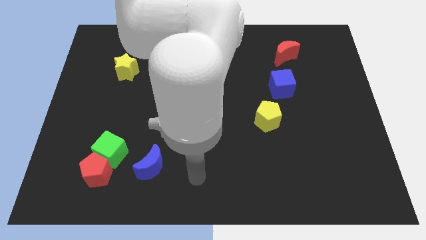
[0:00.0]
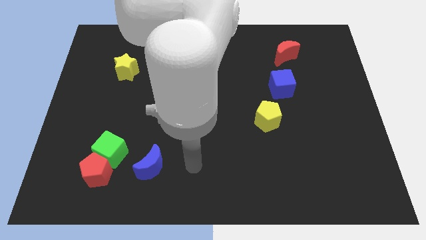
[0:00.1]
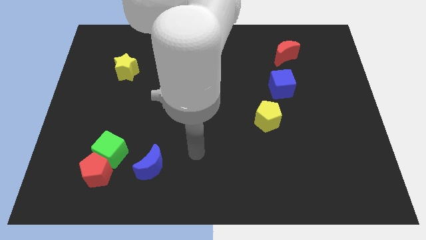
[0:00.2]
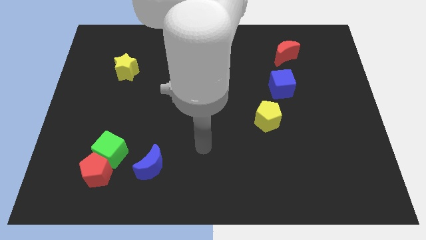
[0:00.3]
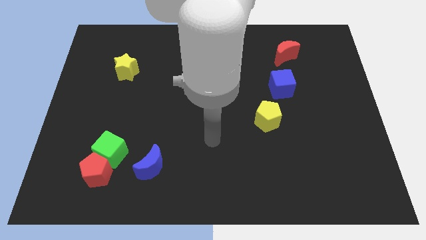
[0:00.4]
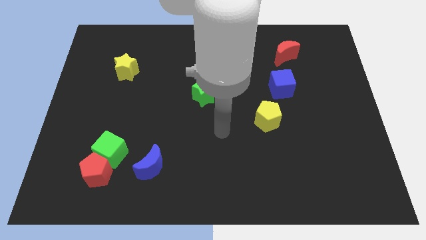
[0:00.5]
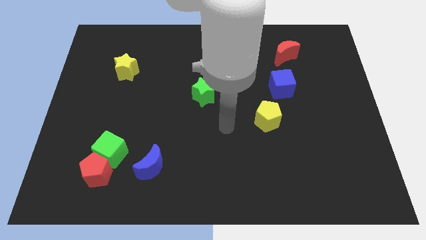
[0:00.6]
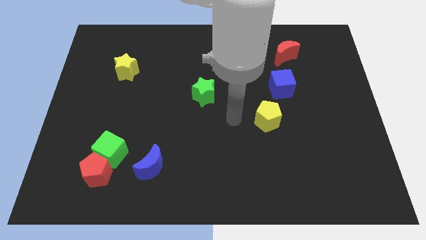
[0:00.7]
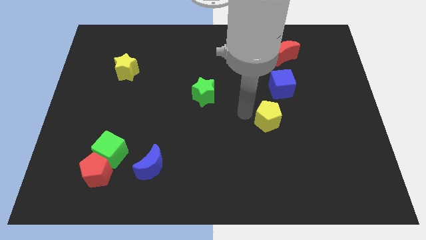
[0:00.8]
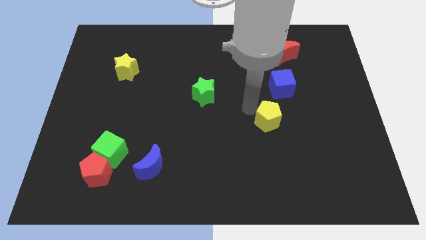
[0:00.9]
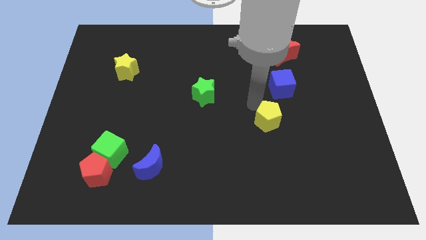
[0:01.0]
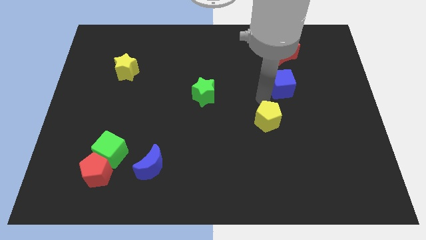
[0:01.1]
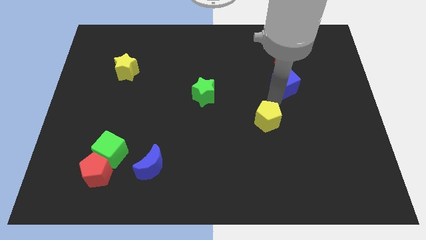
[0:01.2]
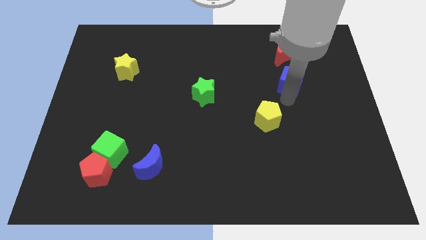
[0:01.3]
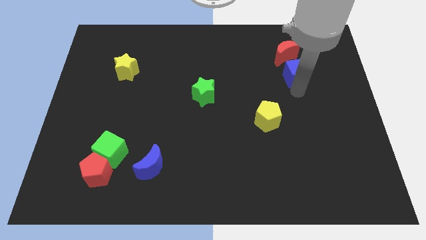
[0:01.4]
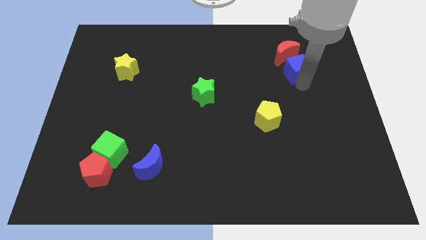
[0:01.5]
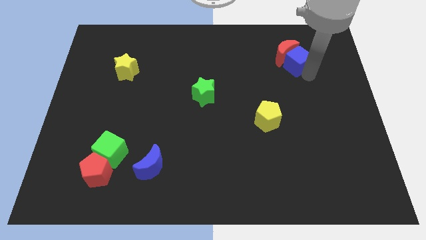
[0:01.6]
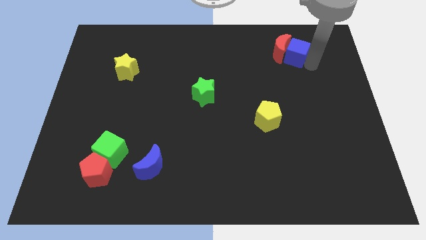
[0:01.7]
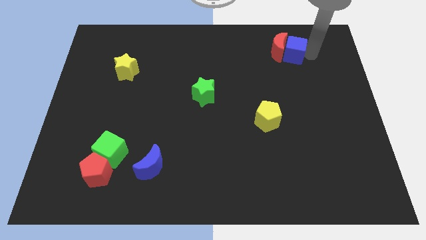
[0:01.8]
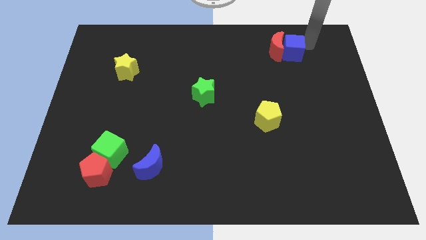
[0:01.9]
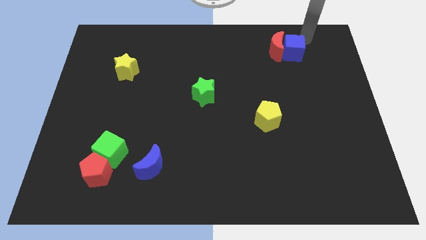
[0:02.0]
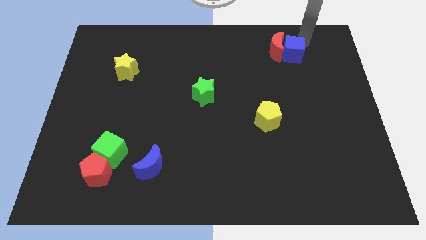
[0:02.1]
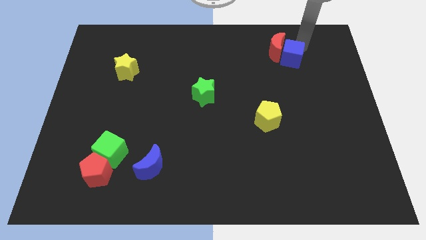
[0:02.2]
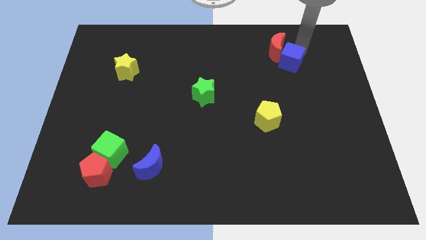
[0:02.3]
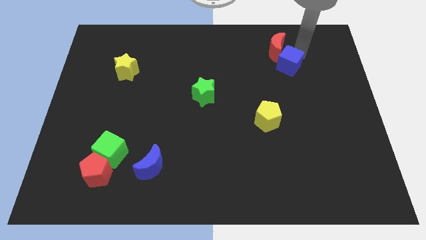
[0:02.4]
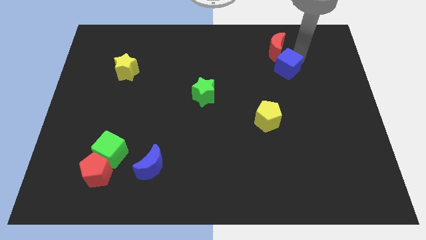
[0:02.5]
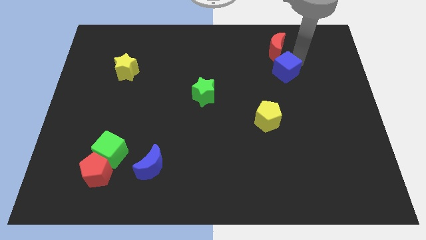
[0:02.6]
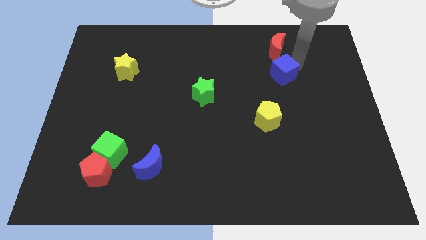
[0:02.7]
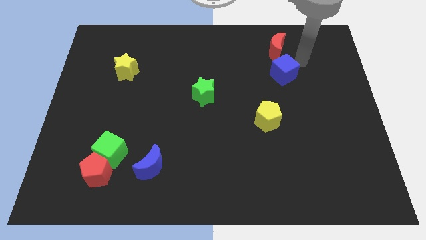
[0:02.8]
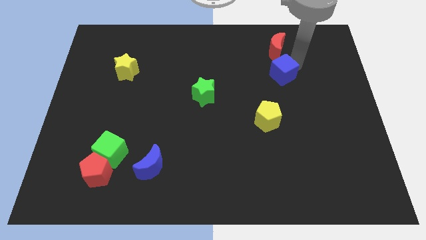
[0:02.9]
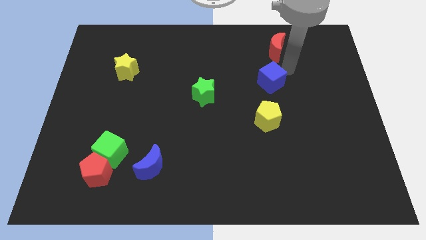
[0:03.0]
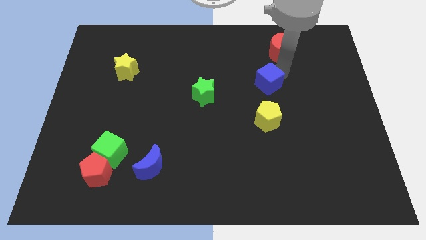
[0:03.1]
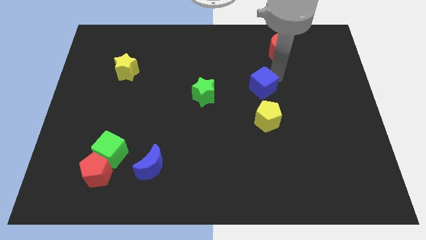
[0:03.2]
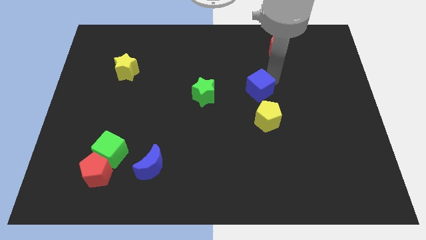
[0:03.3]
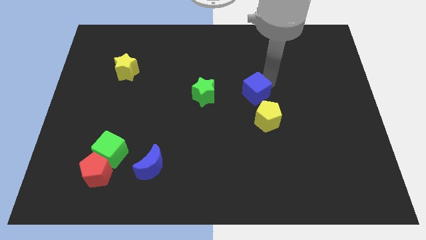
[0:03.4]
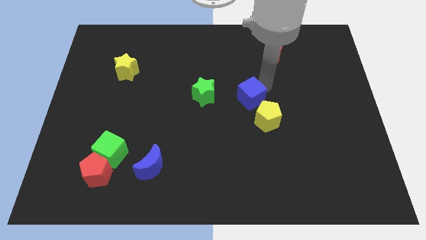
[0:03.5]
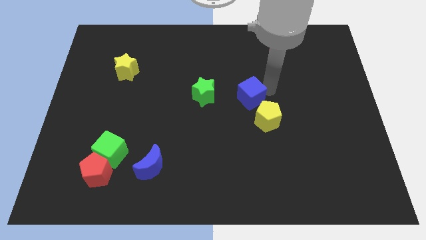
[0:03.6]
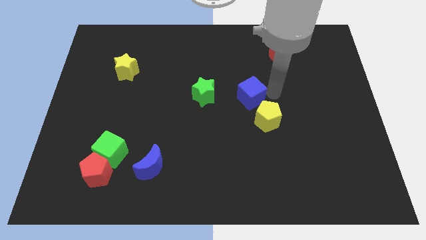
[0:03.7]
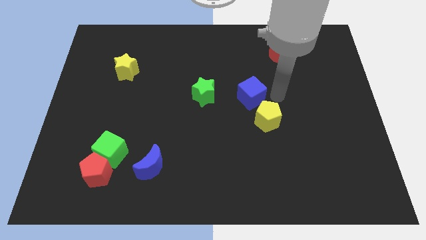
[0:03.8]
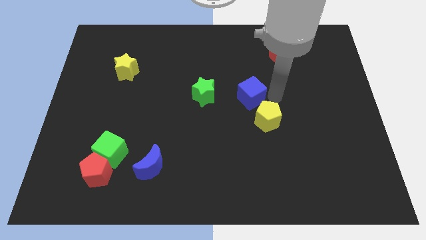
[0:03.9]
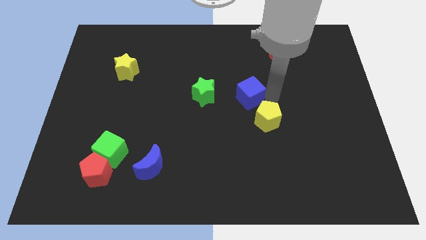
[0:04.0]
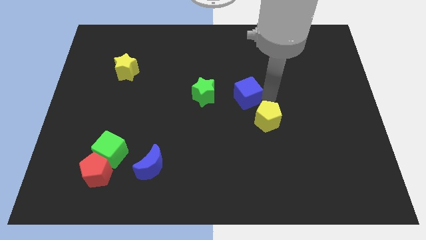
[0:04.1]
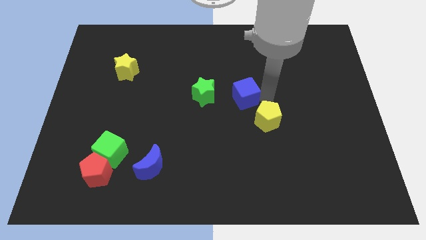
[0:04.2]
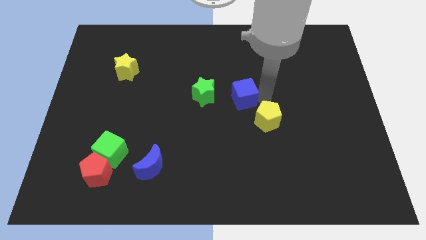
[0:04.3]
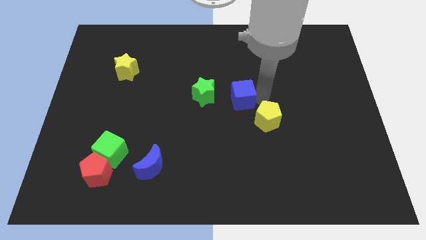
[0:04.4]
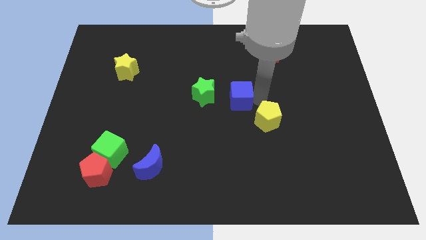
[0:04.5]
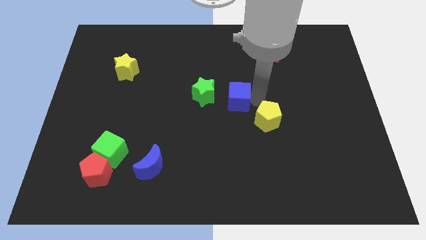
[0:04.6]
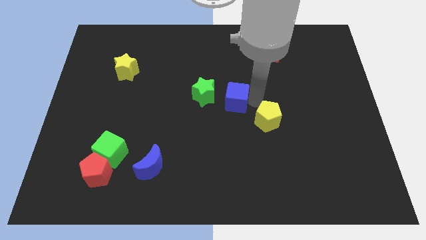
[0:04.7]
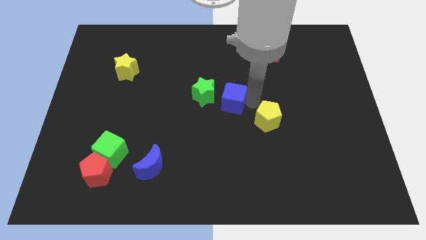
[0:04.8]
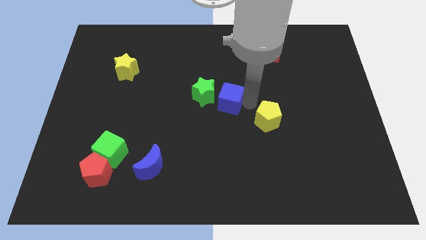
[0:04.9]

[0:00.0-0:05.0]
slide the blue cube towards the green star

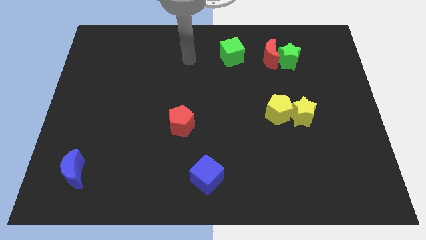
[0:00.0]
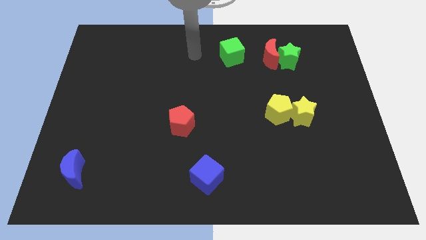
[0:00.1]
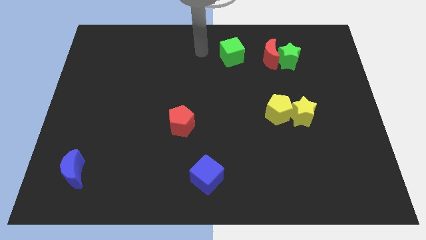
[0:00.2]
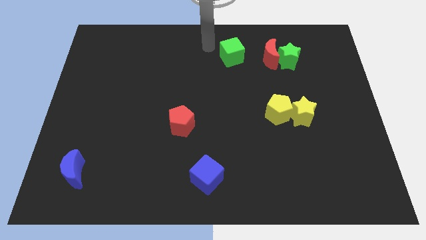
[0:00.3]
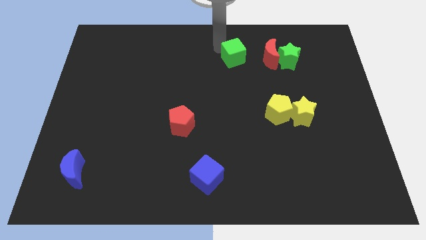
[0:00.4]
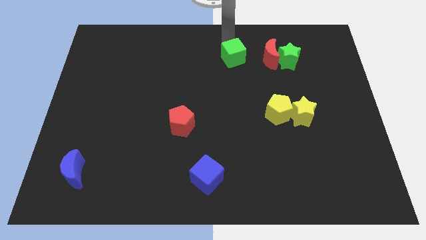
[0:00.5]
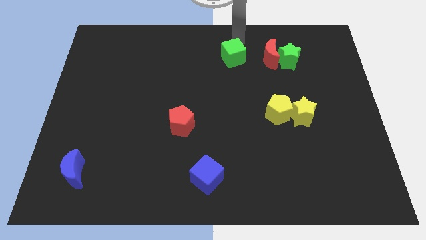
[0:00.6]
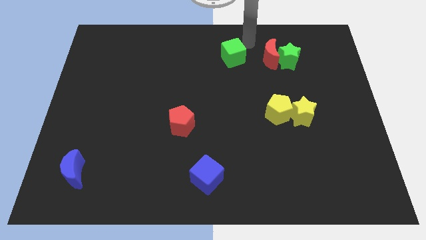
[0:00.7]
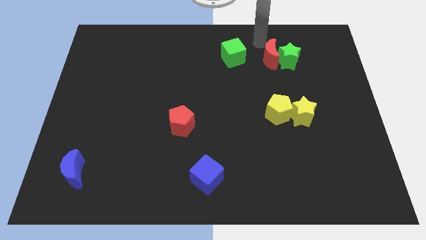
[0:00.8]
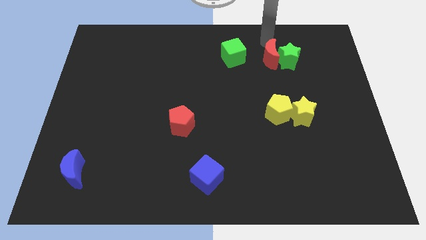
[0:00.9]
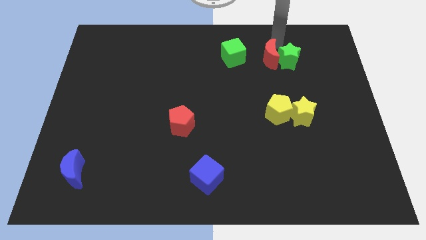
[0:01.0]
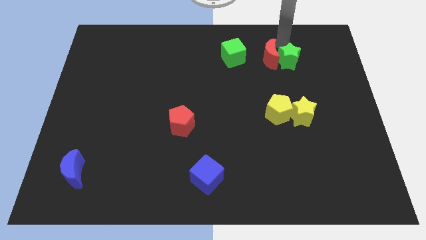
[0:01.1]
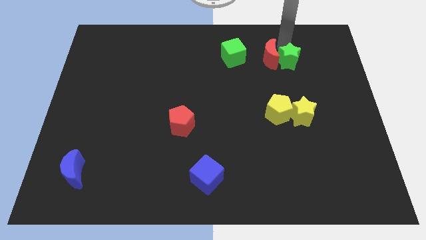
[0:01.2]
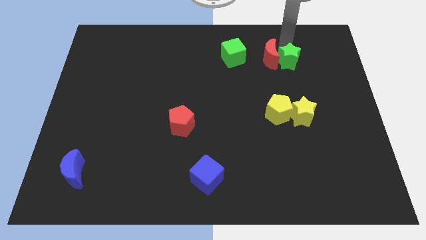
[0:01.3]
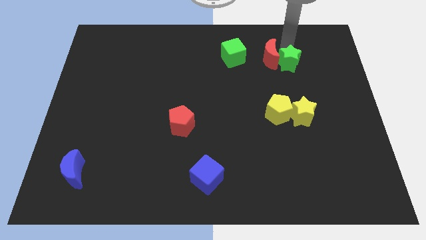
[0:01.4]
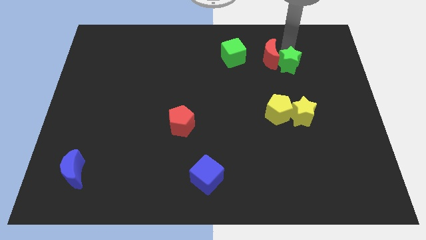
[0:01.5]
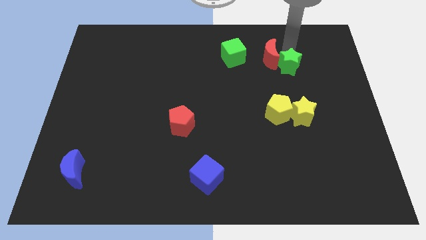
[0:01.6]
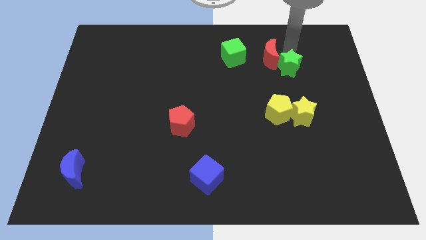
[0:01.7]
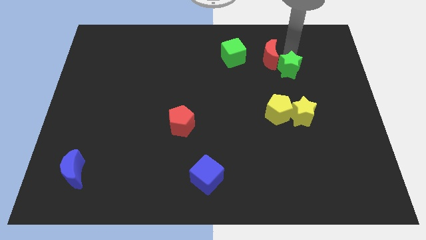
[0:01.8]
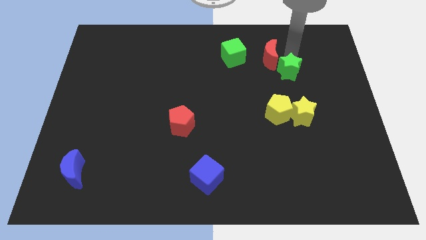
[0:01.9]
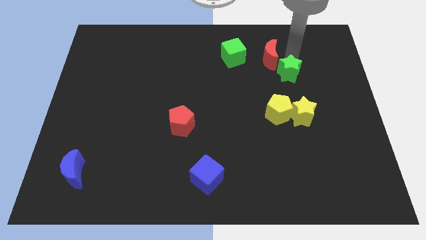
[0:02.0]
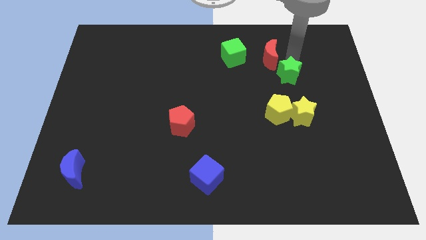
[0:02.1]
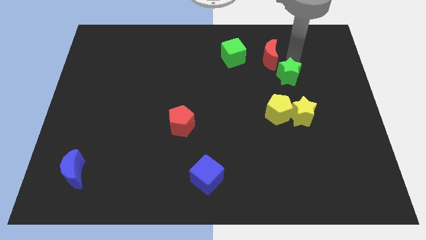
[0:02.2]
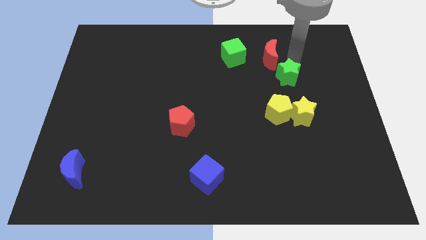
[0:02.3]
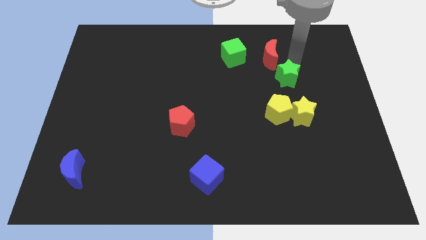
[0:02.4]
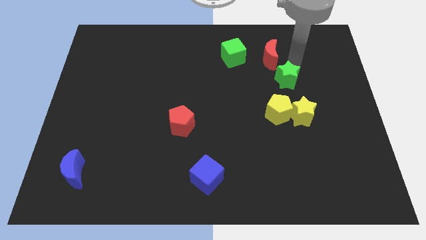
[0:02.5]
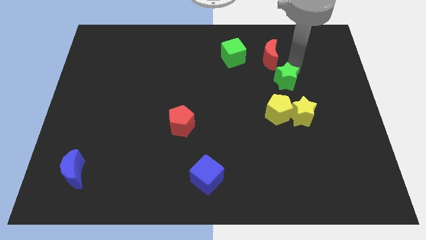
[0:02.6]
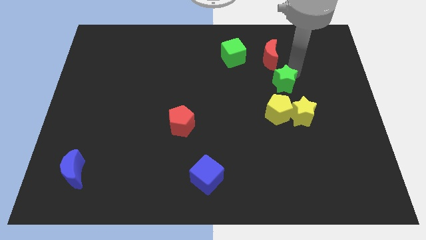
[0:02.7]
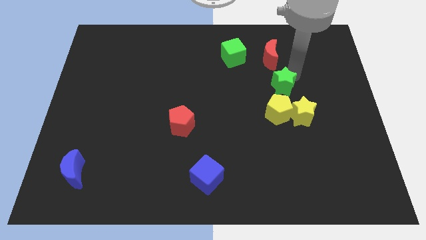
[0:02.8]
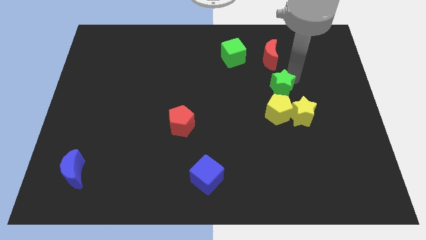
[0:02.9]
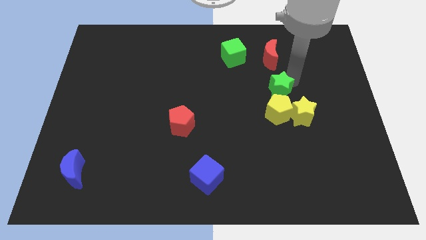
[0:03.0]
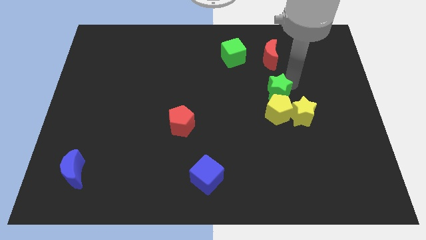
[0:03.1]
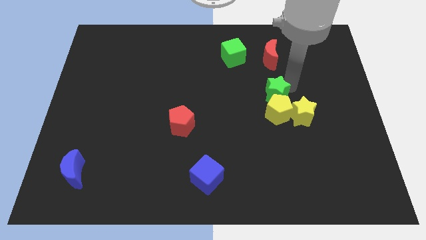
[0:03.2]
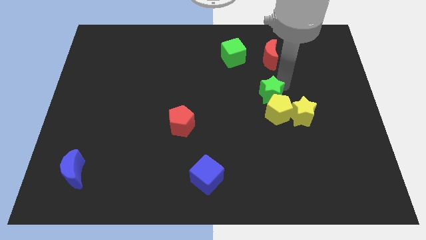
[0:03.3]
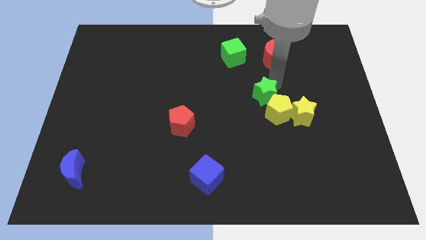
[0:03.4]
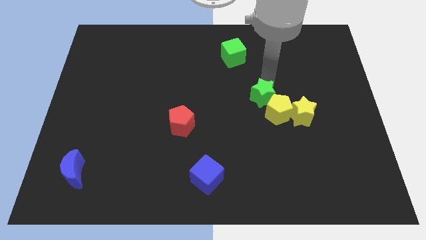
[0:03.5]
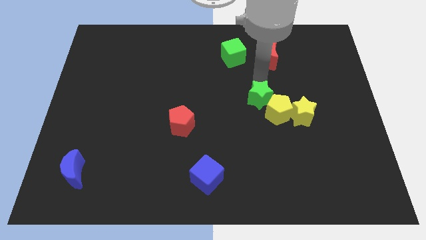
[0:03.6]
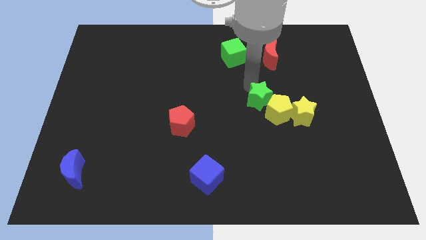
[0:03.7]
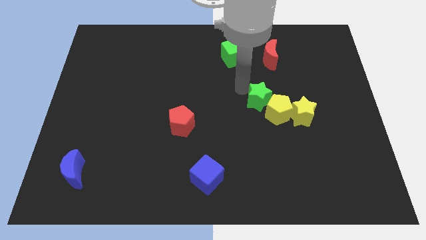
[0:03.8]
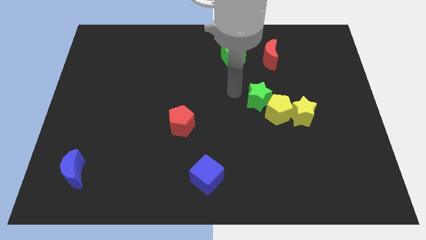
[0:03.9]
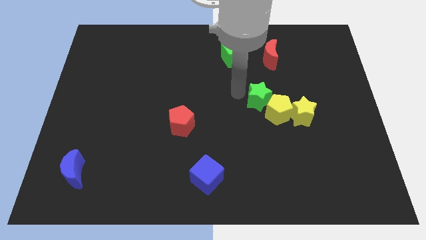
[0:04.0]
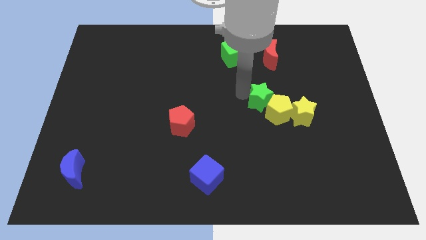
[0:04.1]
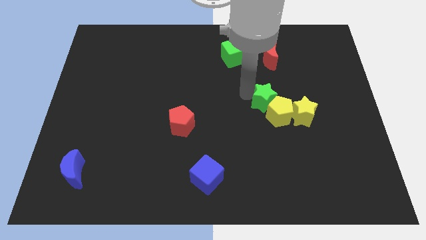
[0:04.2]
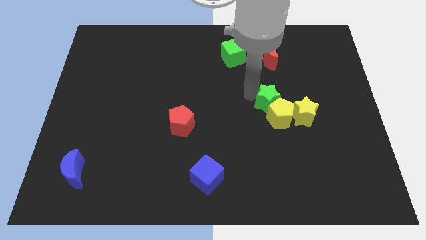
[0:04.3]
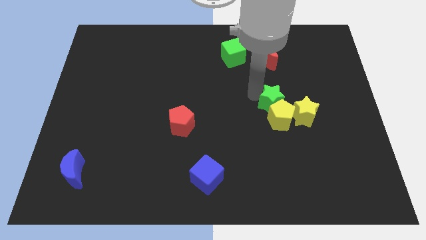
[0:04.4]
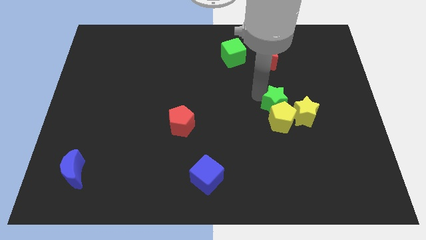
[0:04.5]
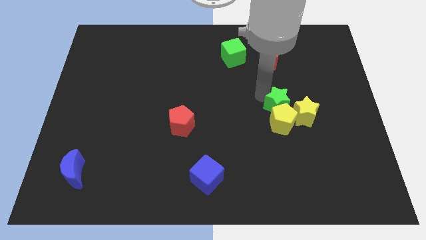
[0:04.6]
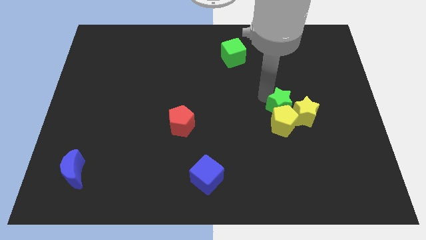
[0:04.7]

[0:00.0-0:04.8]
push the green star close to the yellow star
